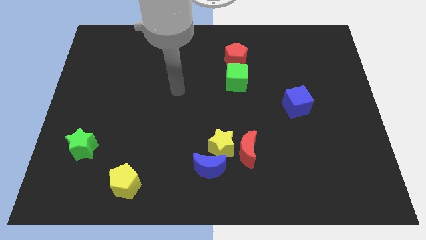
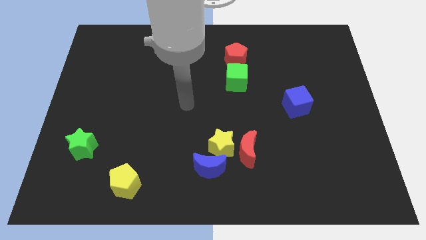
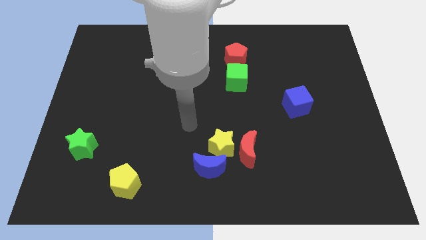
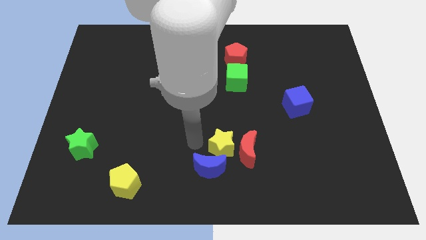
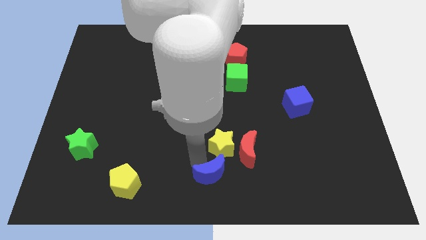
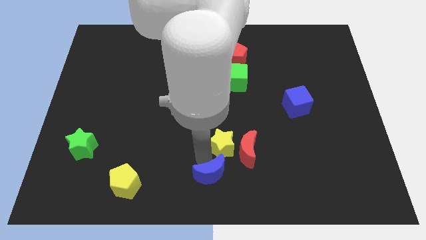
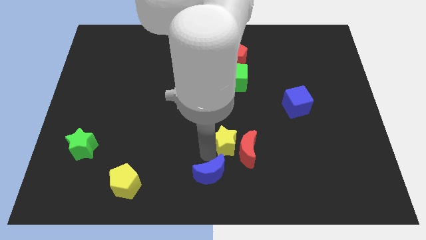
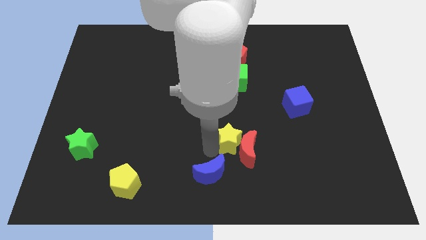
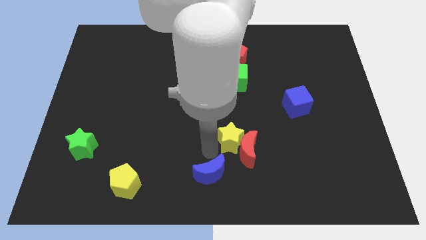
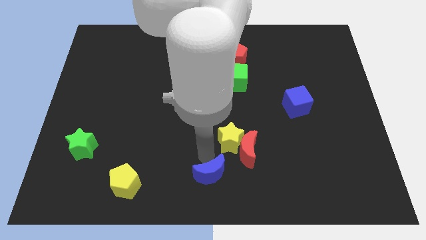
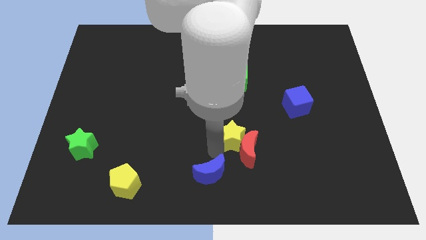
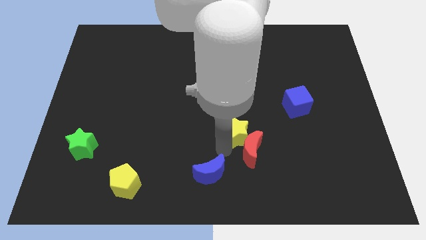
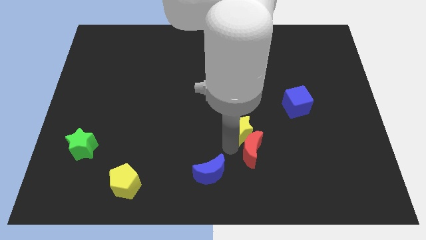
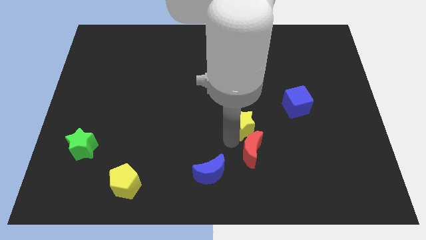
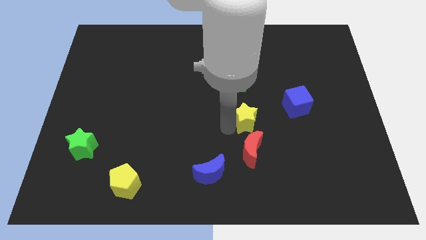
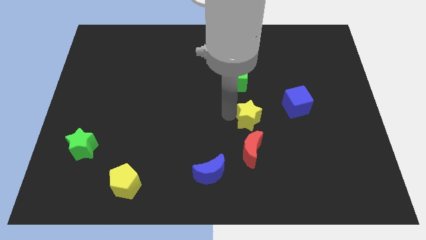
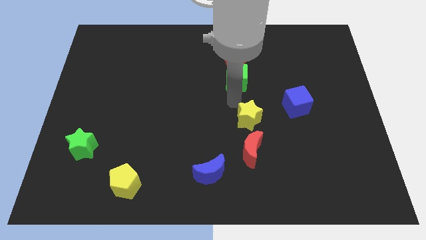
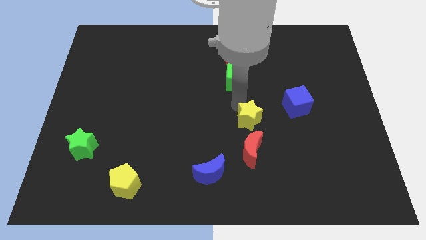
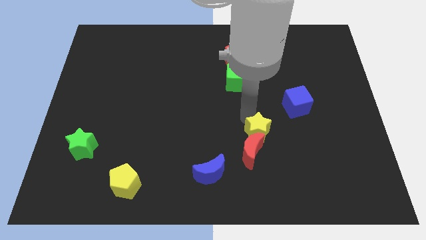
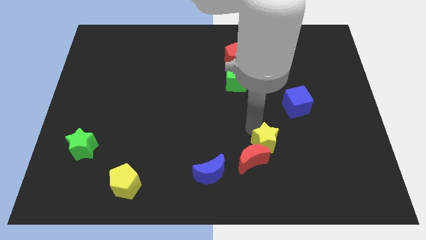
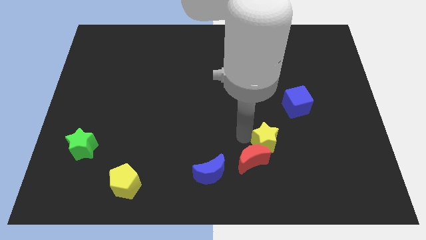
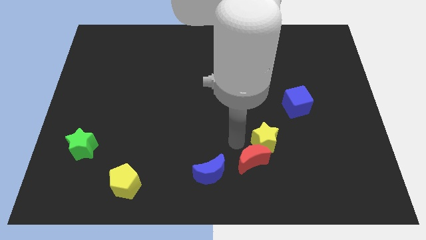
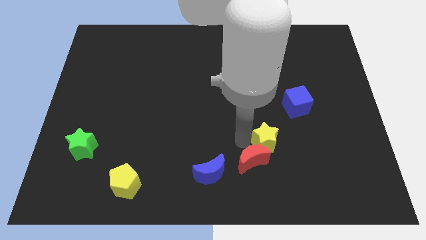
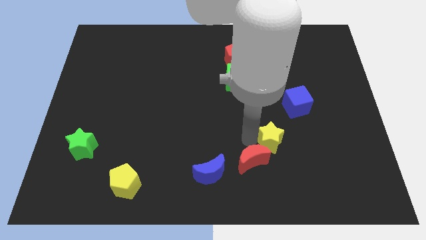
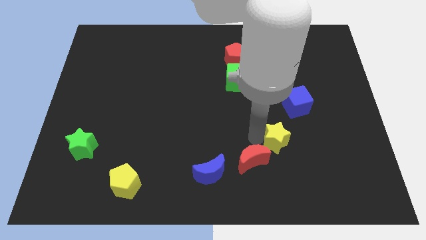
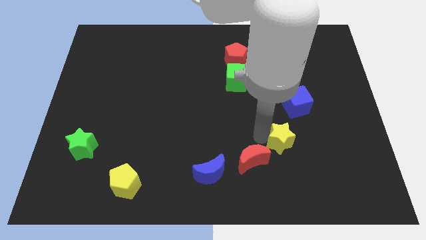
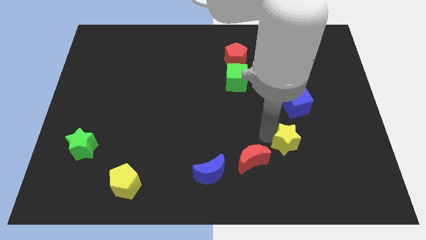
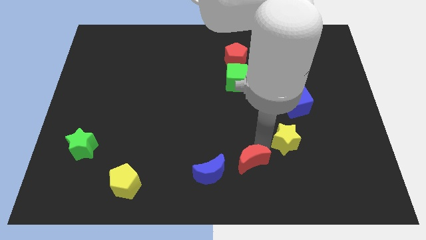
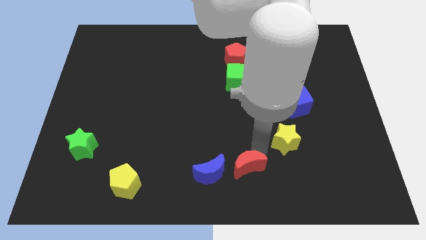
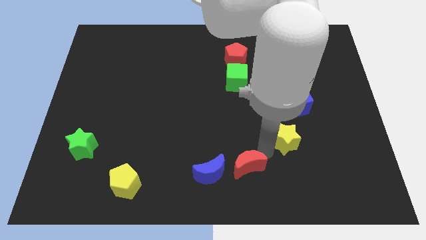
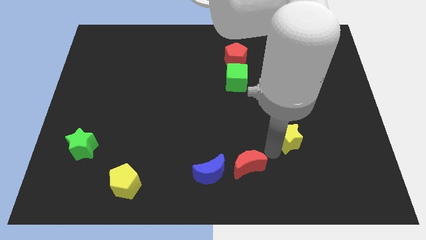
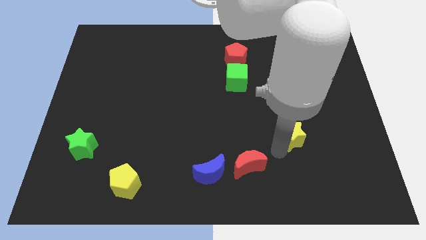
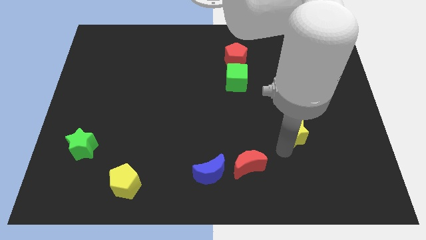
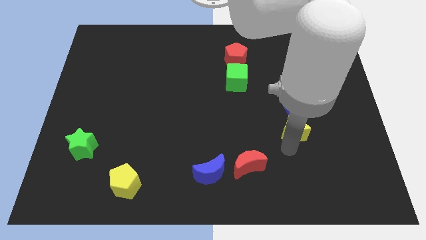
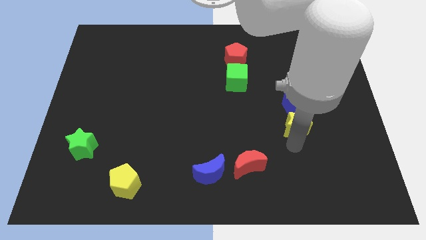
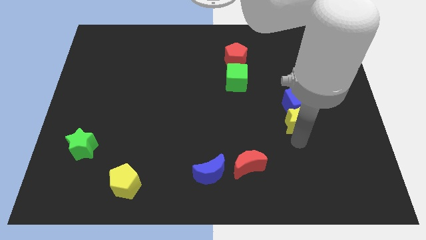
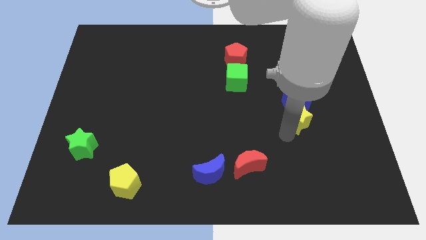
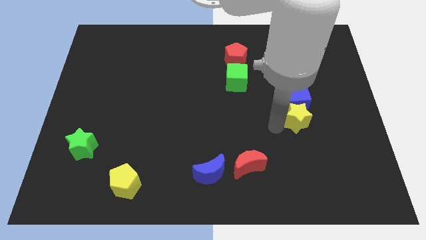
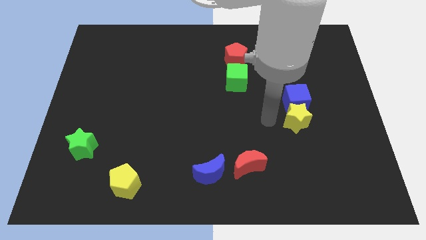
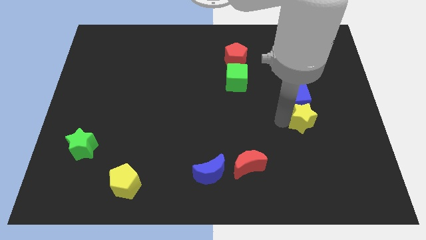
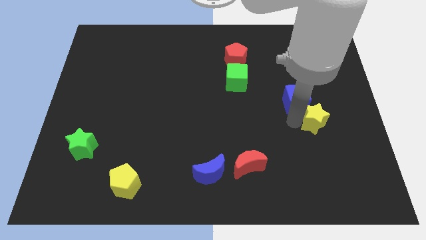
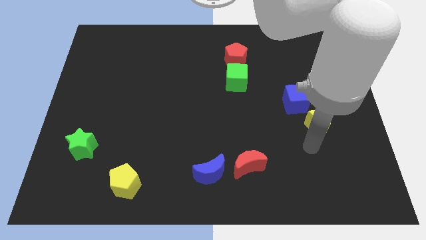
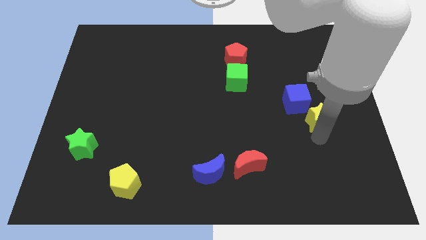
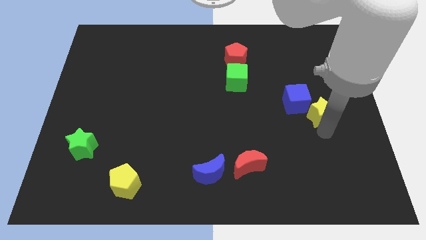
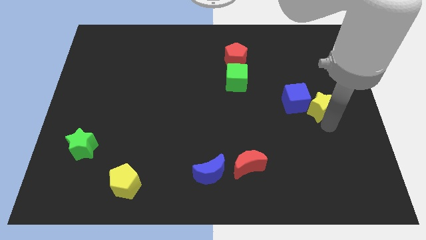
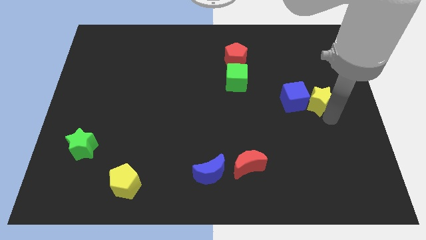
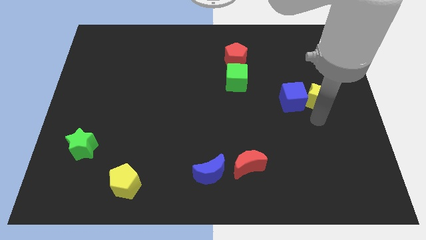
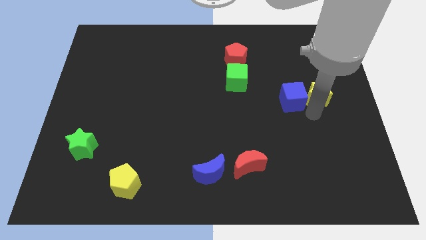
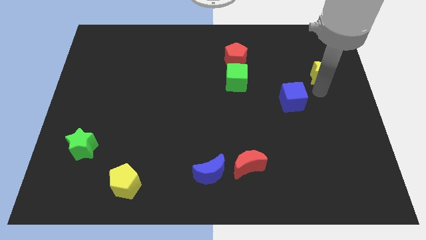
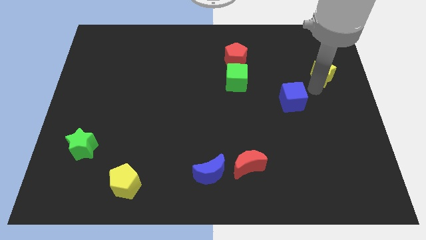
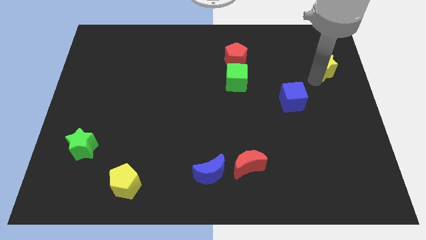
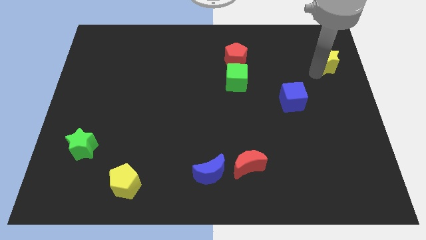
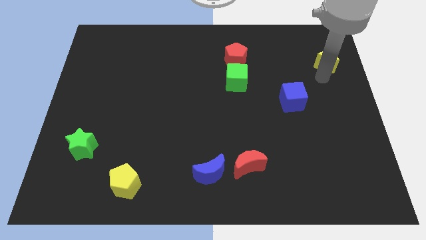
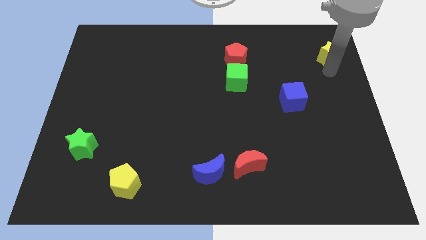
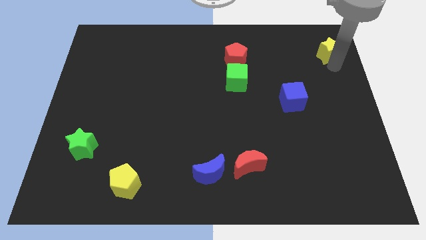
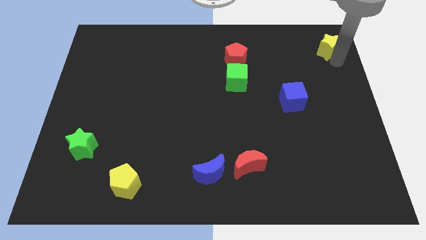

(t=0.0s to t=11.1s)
move the yellow star to the top right of the board

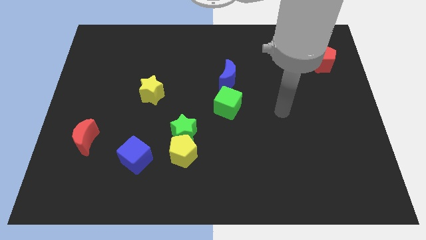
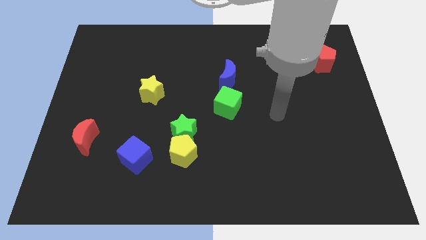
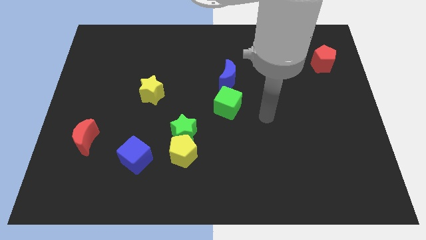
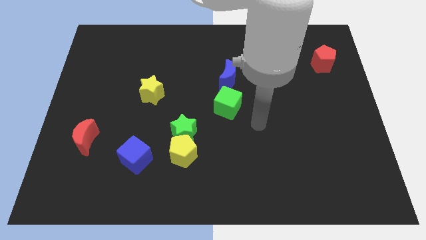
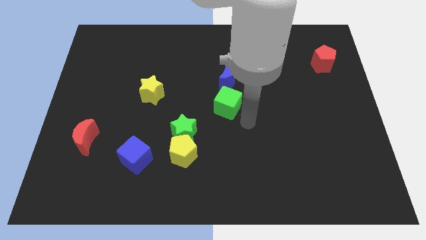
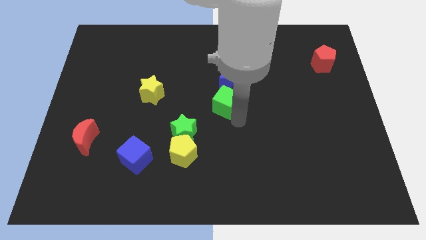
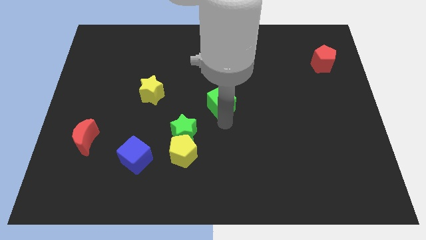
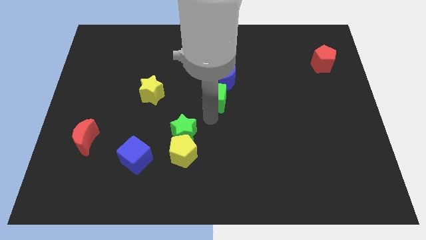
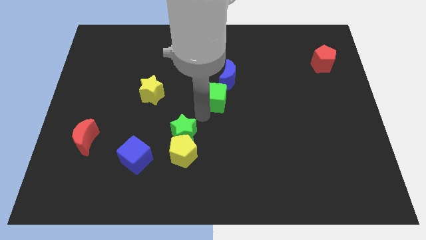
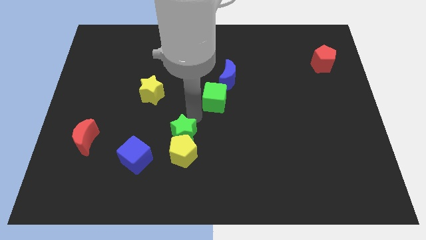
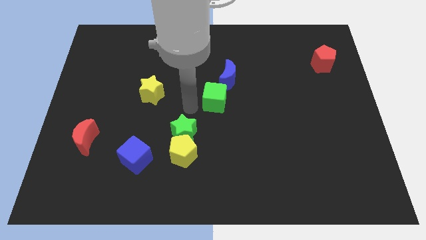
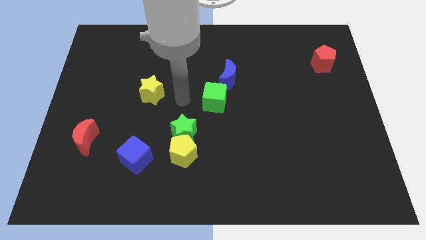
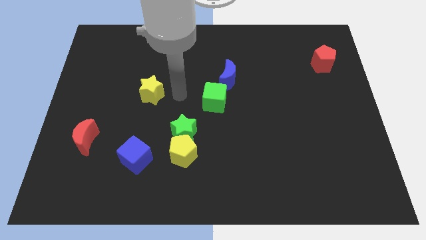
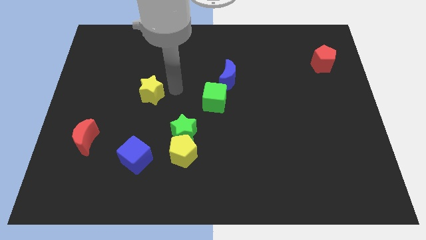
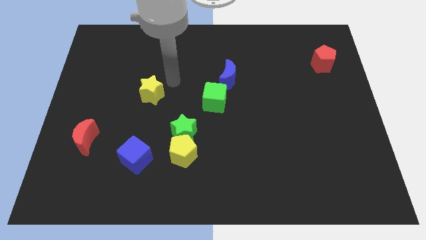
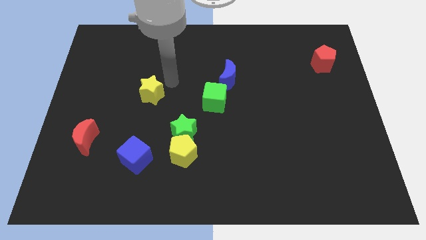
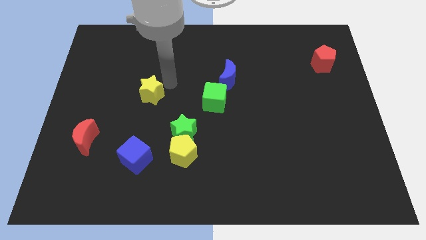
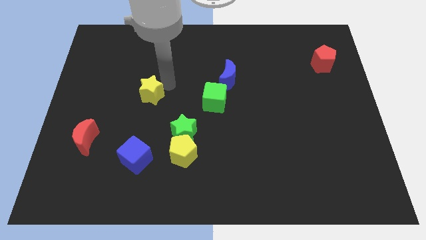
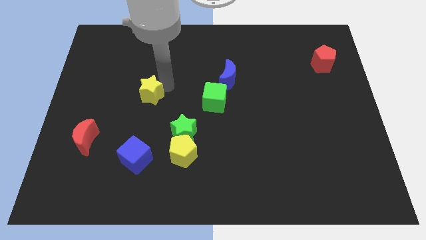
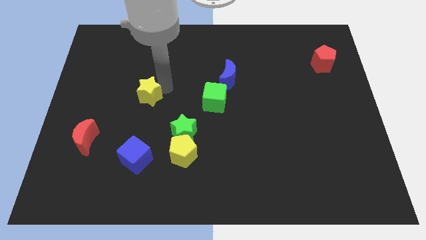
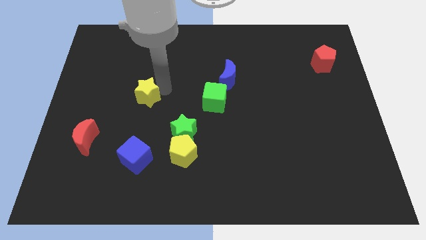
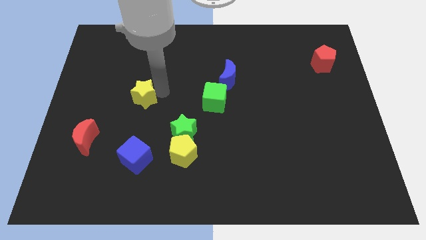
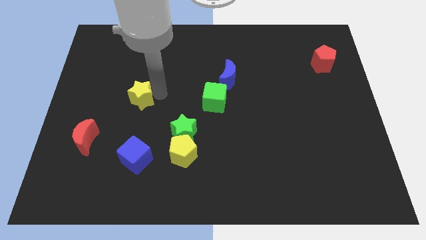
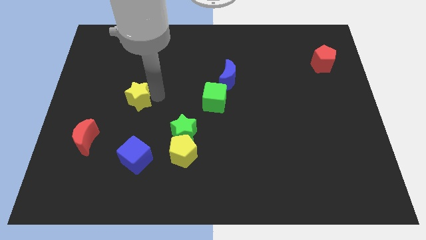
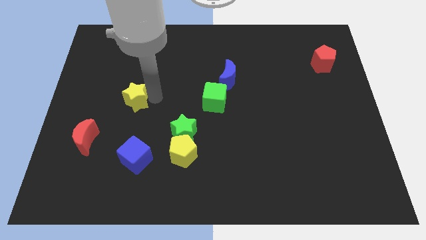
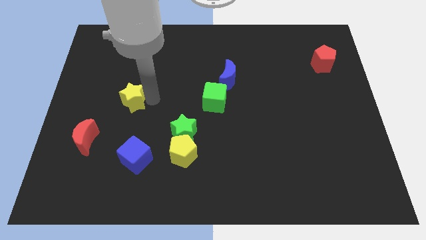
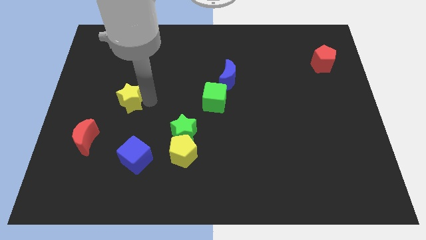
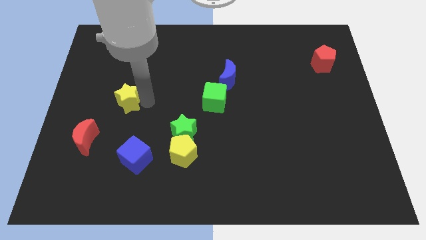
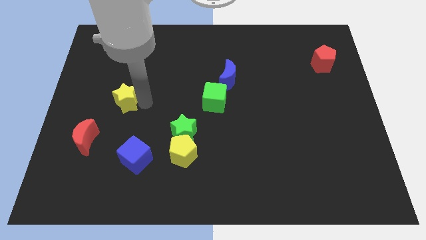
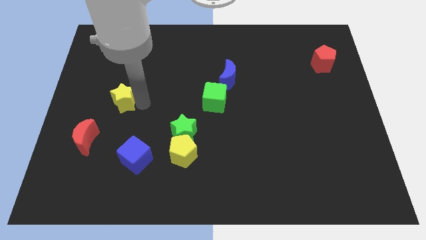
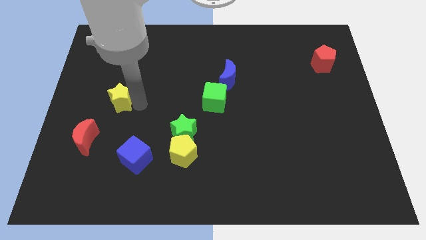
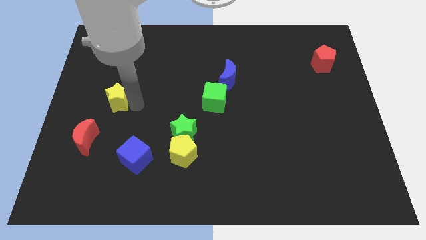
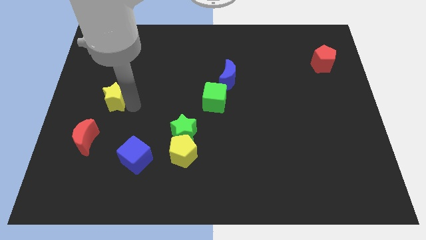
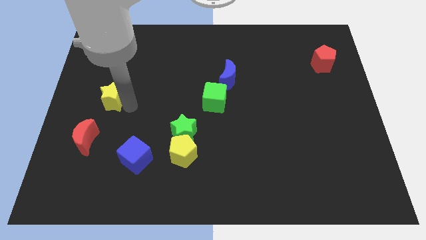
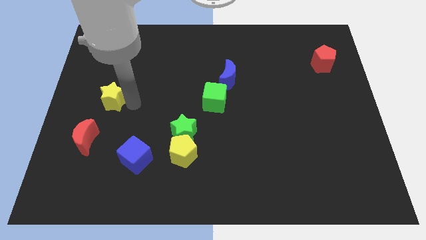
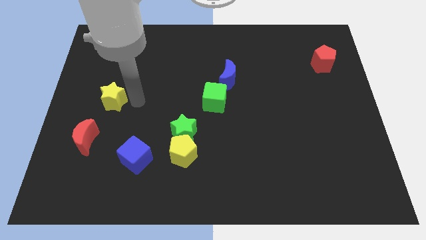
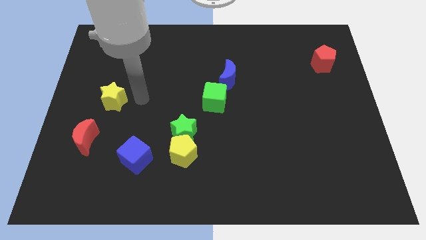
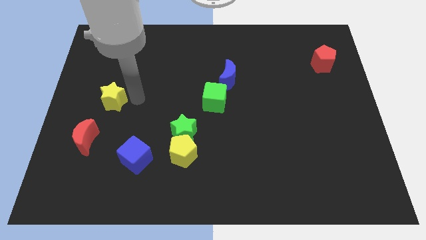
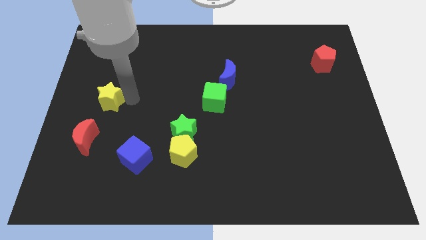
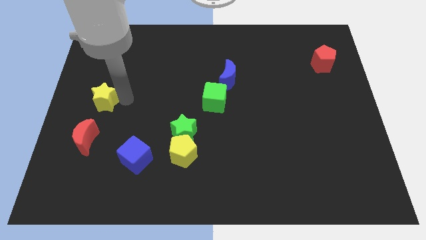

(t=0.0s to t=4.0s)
slide the yellow star to the left side of the board
